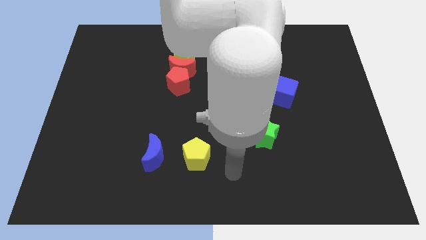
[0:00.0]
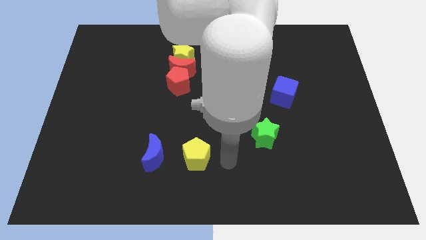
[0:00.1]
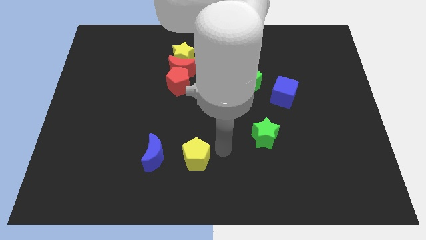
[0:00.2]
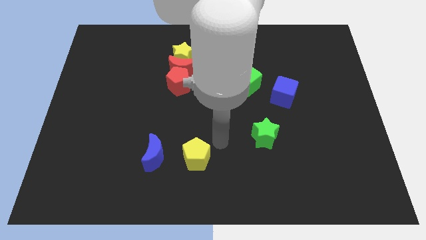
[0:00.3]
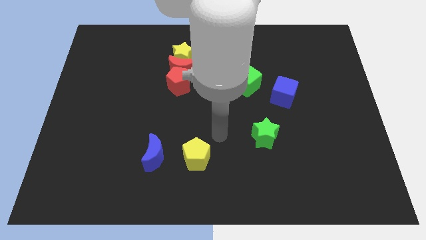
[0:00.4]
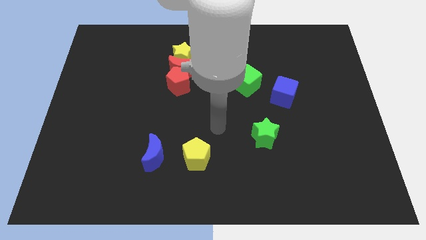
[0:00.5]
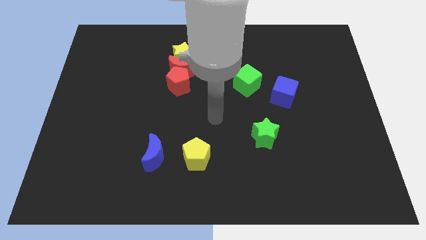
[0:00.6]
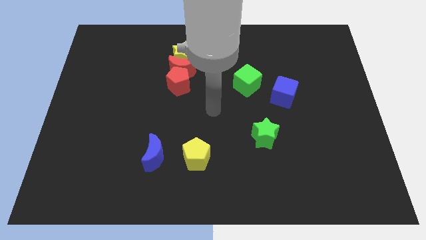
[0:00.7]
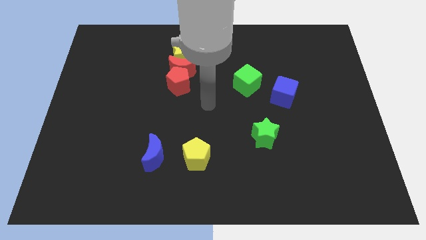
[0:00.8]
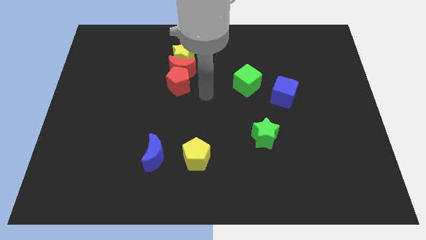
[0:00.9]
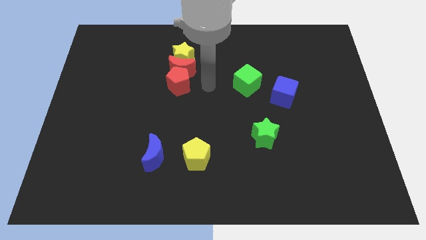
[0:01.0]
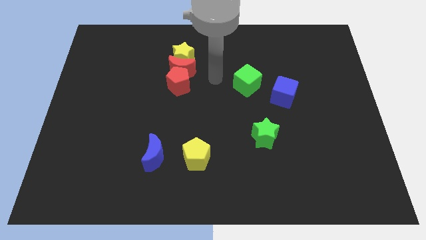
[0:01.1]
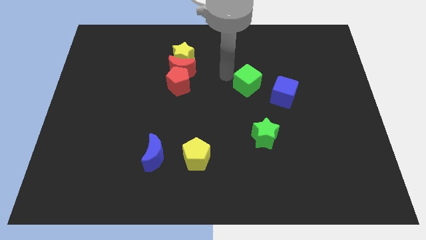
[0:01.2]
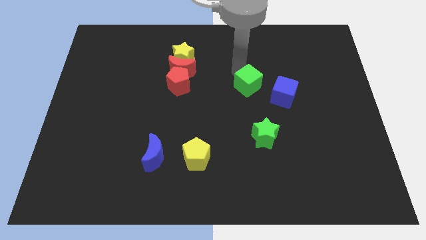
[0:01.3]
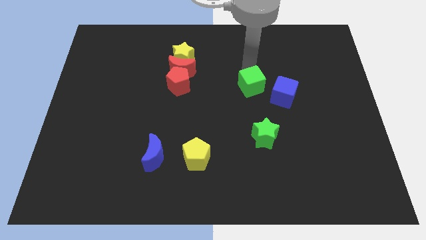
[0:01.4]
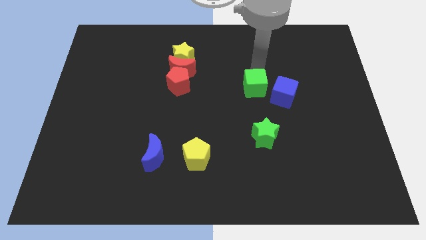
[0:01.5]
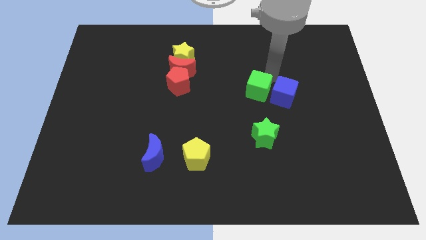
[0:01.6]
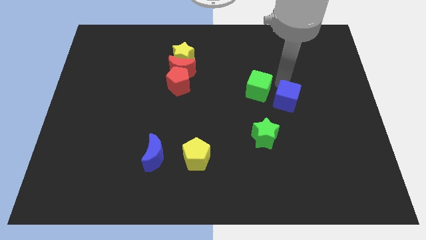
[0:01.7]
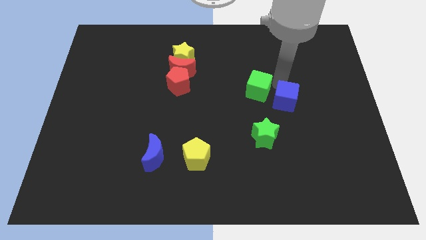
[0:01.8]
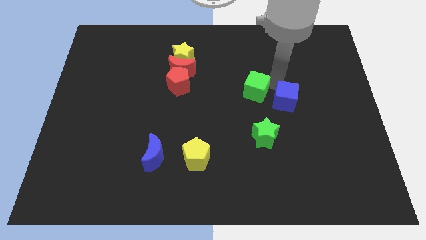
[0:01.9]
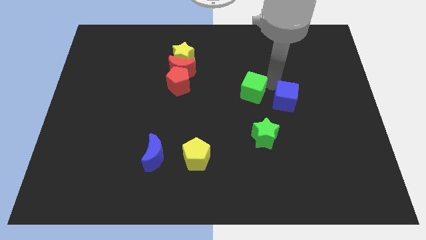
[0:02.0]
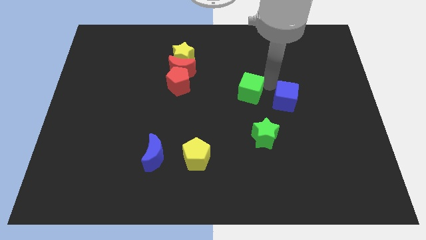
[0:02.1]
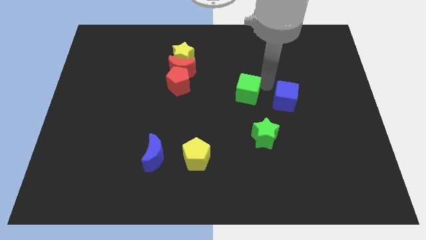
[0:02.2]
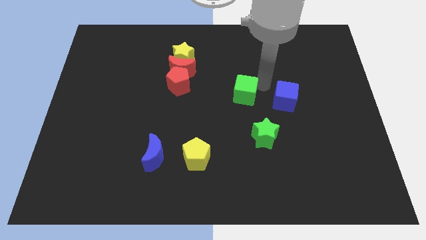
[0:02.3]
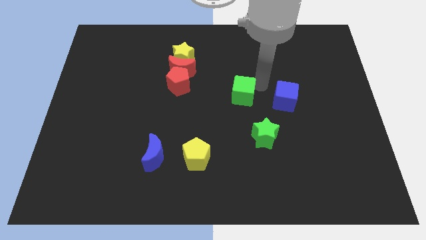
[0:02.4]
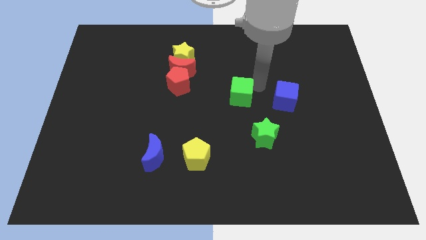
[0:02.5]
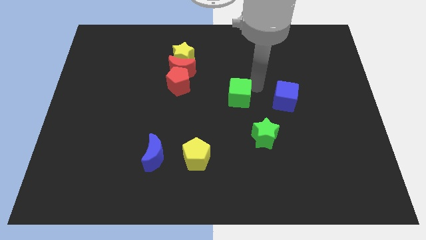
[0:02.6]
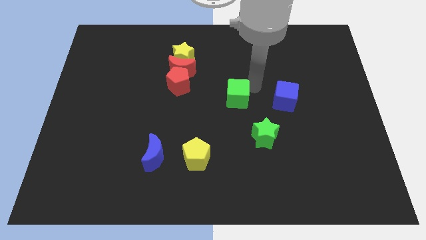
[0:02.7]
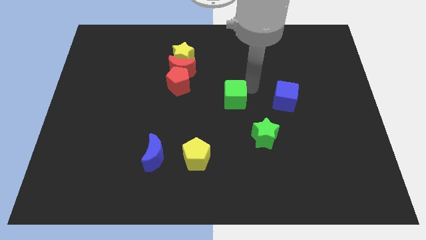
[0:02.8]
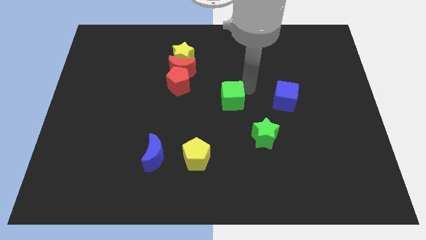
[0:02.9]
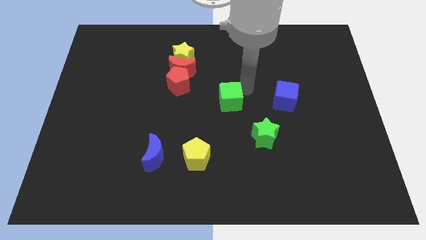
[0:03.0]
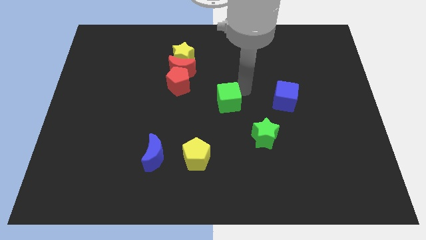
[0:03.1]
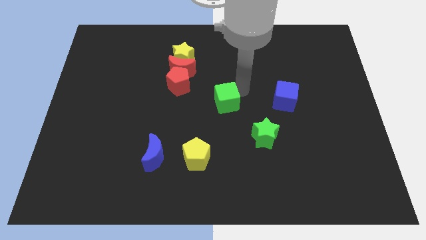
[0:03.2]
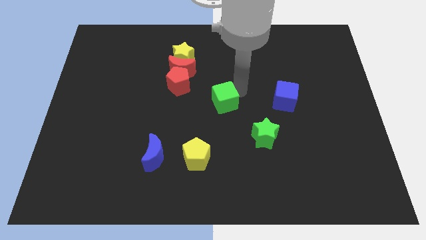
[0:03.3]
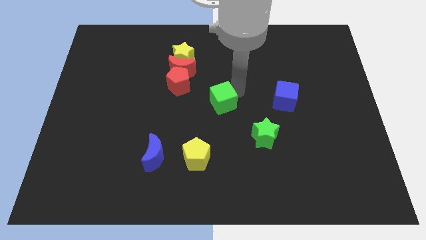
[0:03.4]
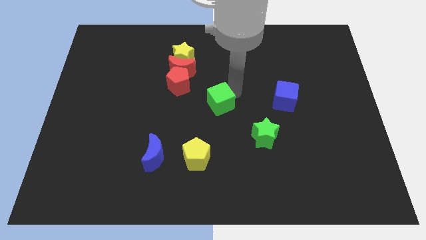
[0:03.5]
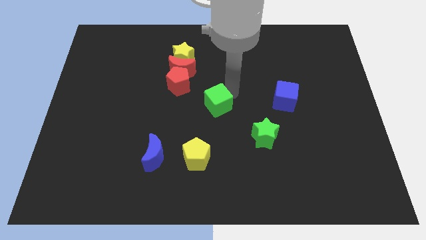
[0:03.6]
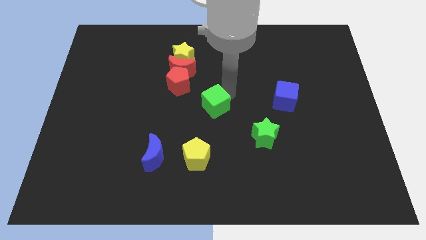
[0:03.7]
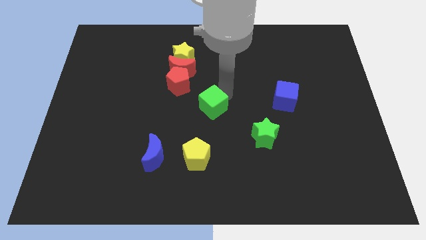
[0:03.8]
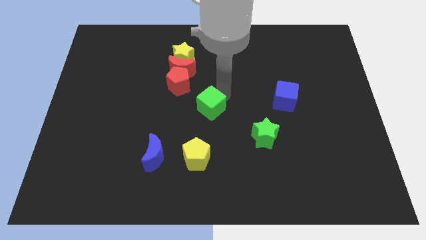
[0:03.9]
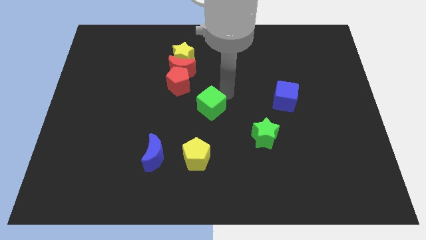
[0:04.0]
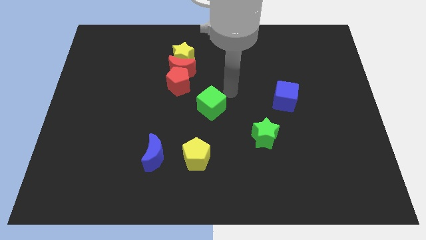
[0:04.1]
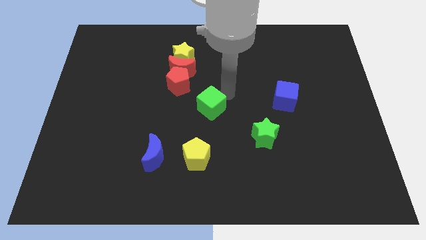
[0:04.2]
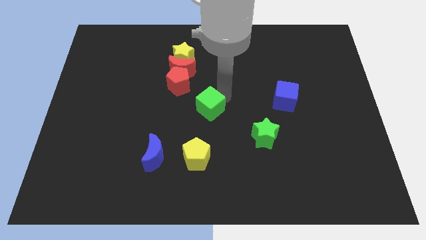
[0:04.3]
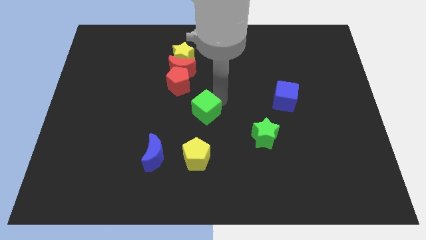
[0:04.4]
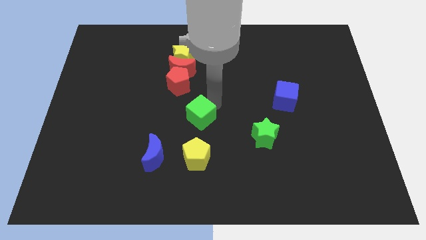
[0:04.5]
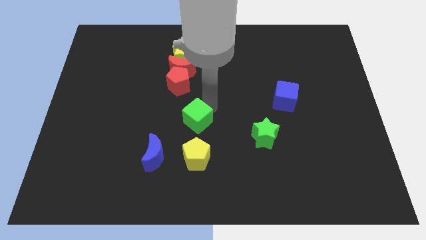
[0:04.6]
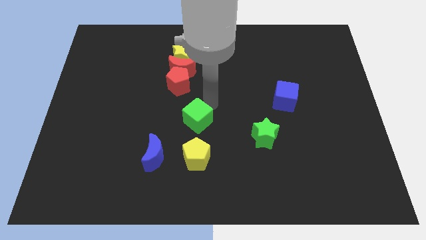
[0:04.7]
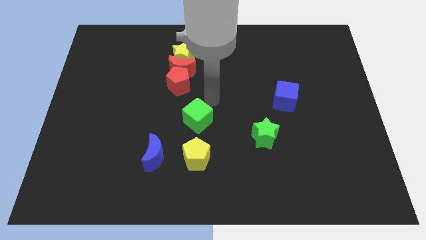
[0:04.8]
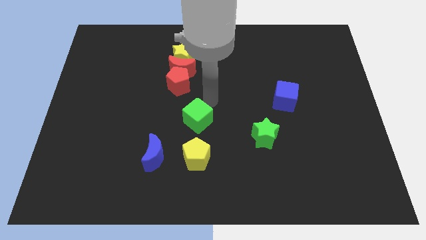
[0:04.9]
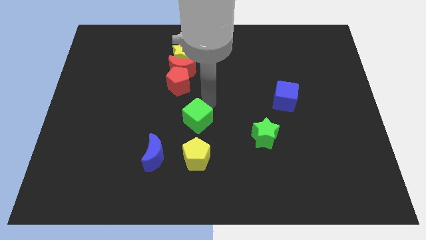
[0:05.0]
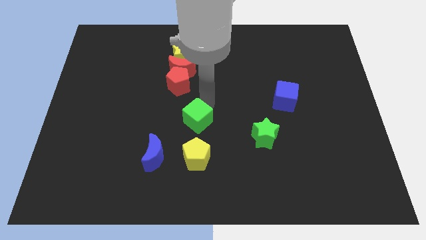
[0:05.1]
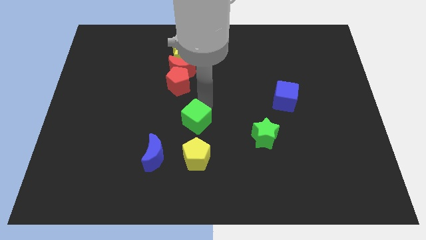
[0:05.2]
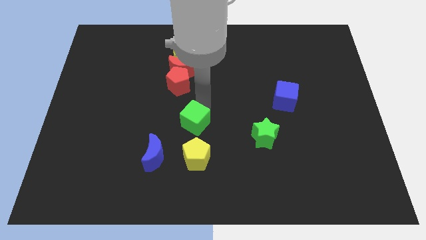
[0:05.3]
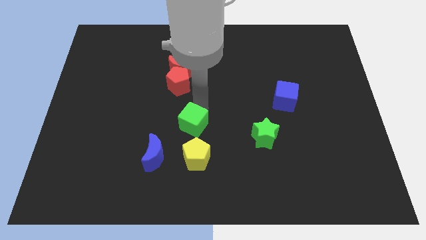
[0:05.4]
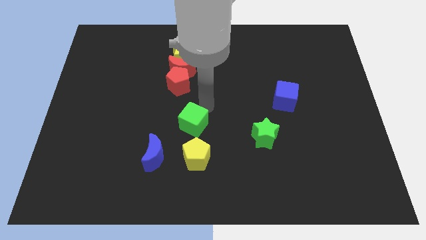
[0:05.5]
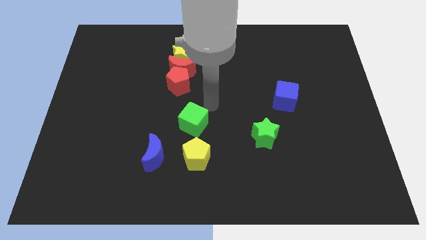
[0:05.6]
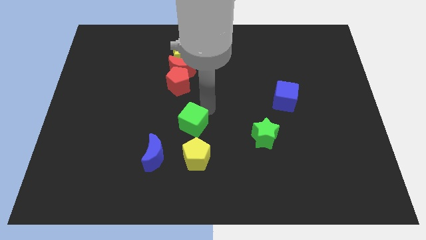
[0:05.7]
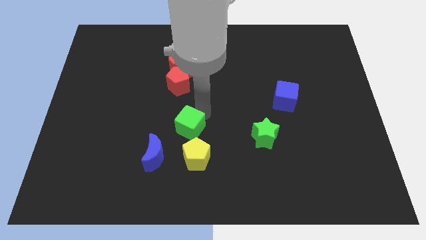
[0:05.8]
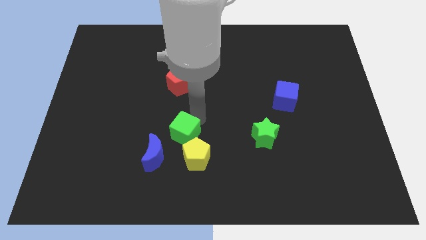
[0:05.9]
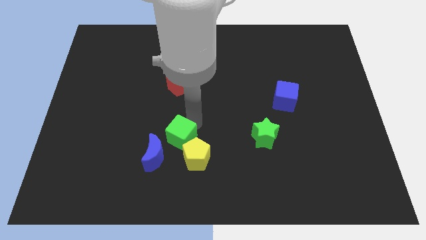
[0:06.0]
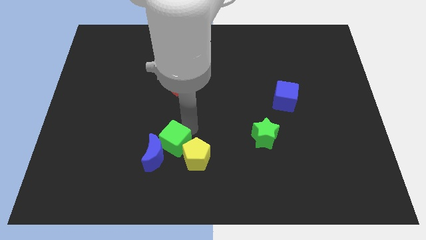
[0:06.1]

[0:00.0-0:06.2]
move the green cube close to the blue moon

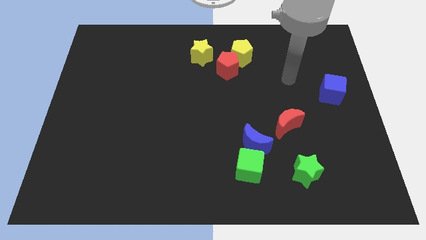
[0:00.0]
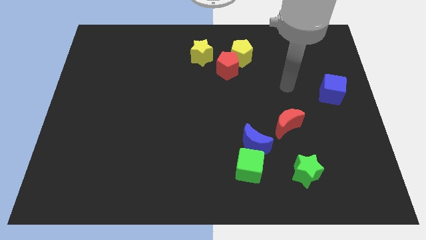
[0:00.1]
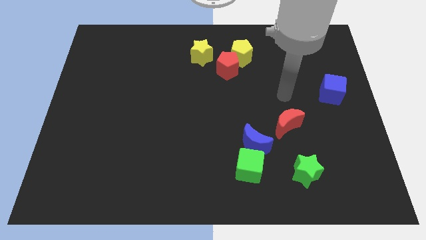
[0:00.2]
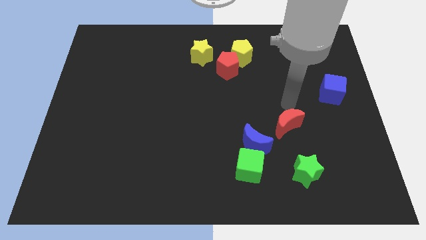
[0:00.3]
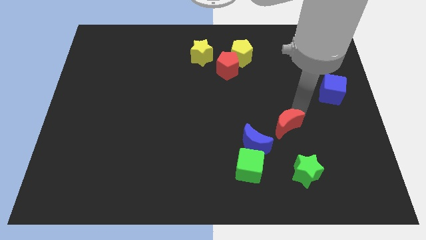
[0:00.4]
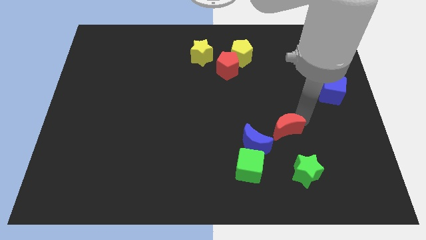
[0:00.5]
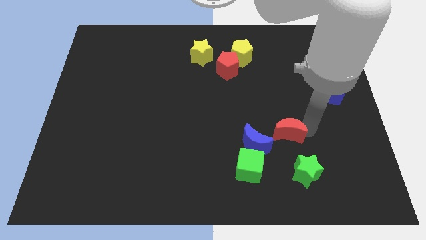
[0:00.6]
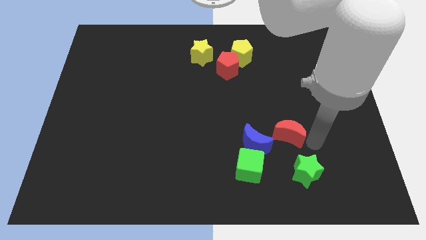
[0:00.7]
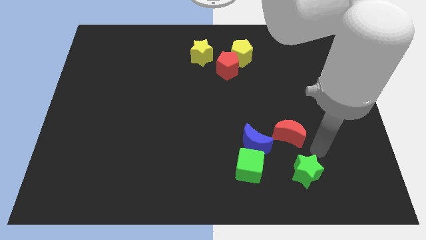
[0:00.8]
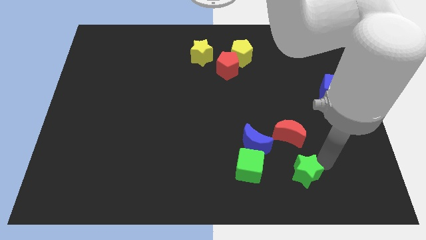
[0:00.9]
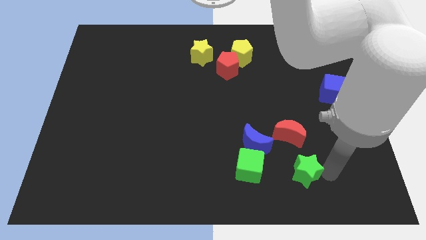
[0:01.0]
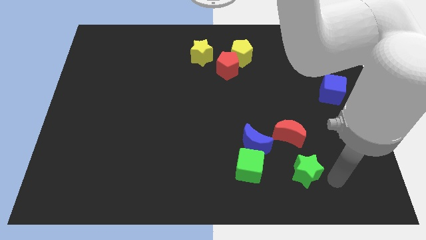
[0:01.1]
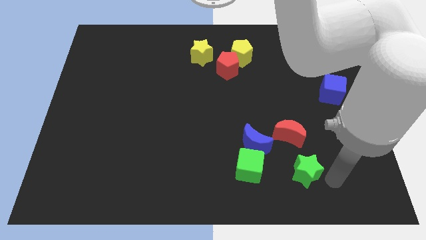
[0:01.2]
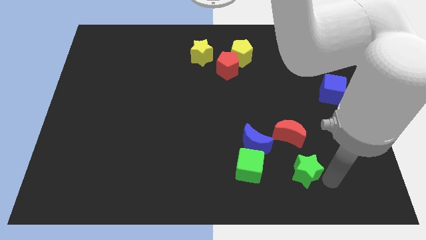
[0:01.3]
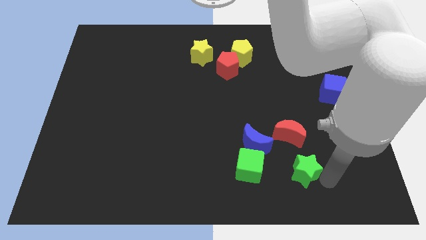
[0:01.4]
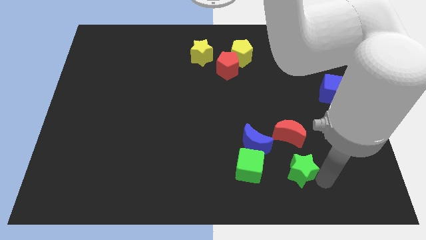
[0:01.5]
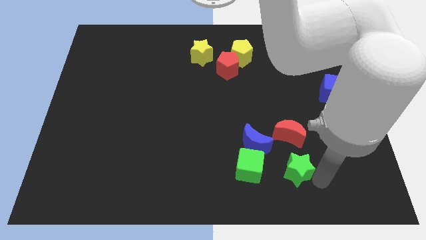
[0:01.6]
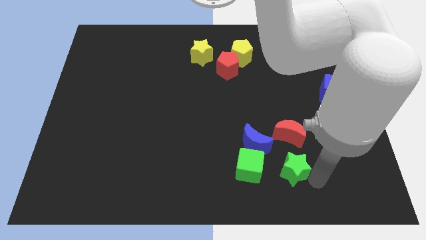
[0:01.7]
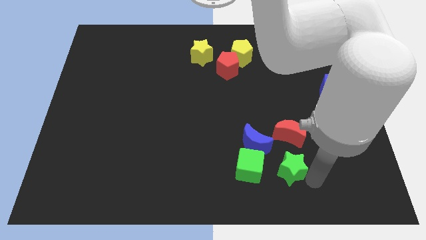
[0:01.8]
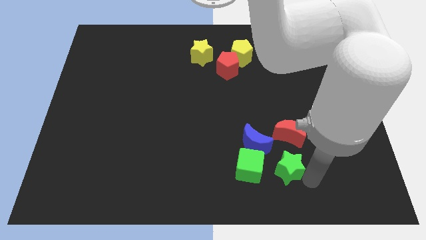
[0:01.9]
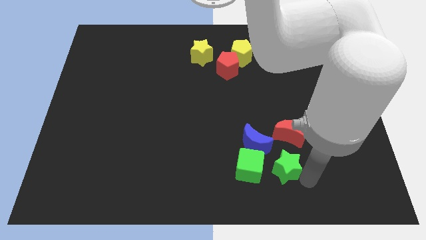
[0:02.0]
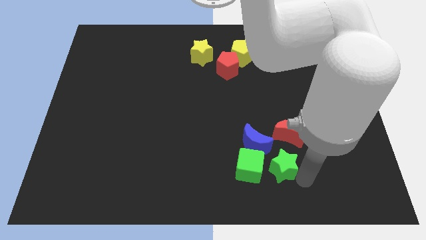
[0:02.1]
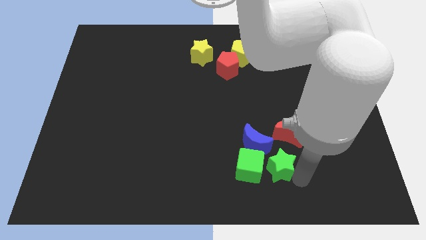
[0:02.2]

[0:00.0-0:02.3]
put the green star towards the green cube
